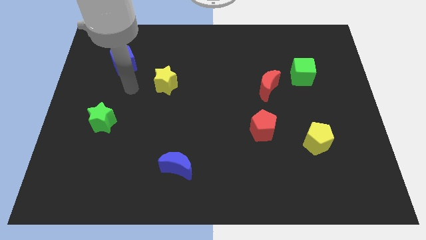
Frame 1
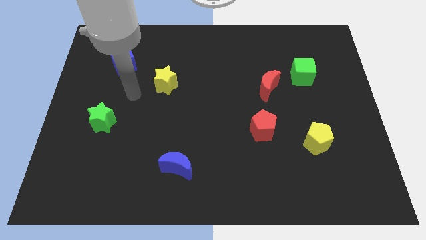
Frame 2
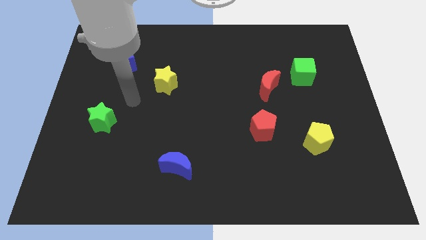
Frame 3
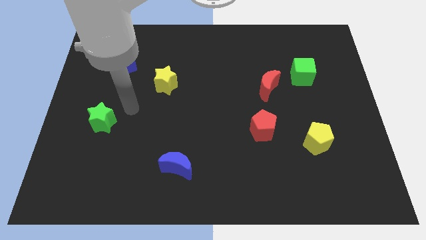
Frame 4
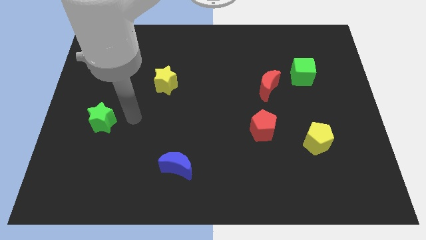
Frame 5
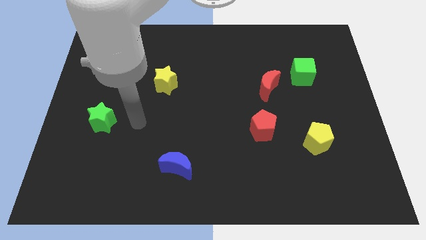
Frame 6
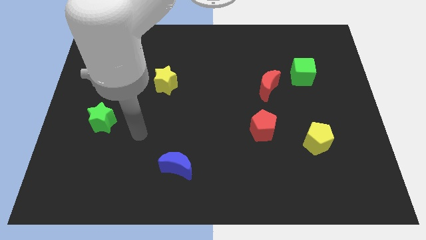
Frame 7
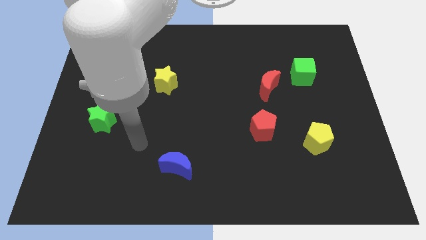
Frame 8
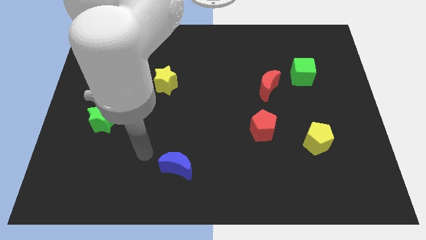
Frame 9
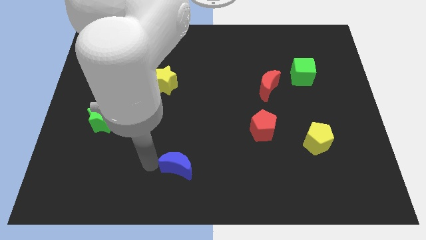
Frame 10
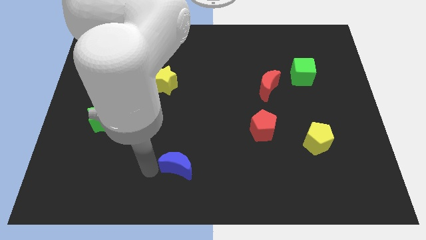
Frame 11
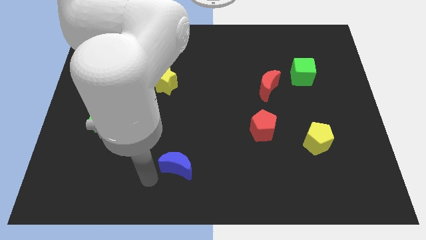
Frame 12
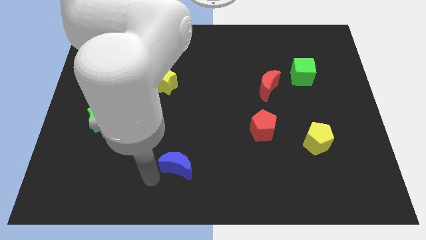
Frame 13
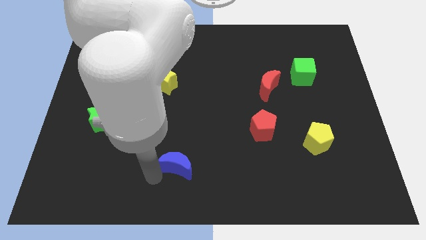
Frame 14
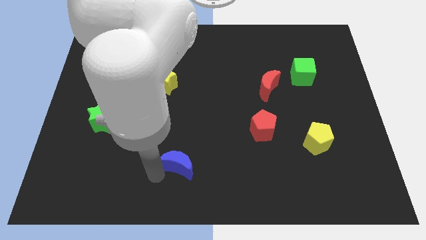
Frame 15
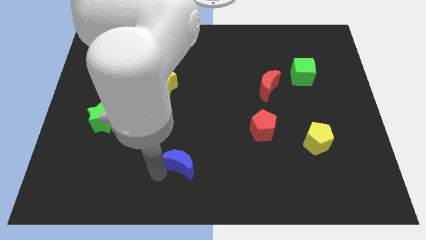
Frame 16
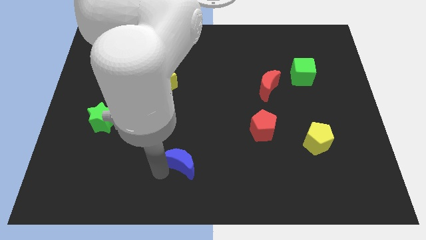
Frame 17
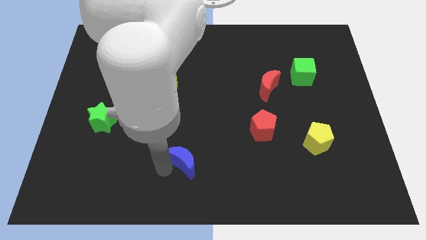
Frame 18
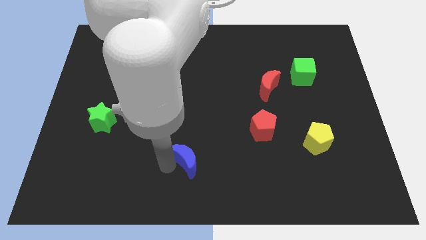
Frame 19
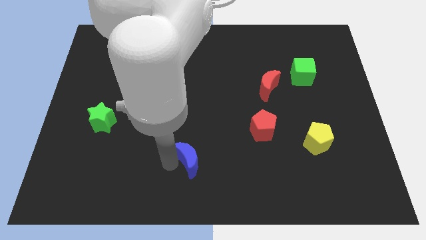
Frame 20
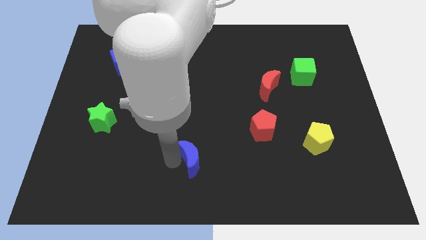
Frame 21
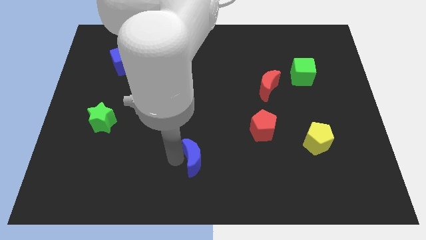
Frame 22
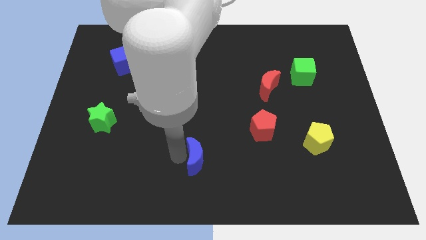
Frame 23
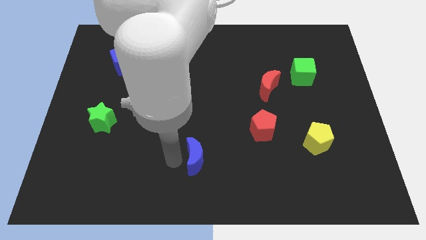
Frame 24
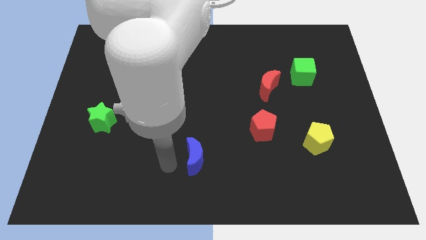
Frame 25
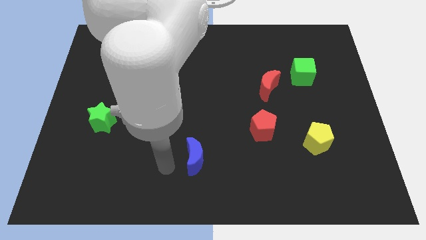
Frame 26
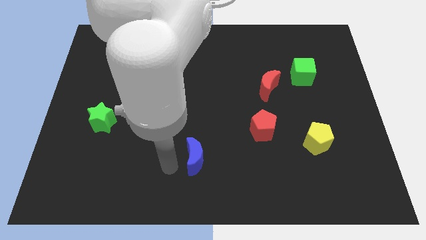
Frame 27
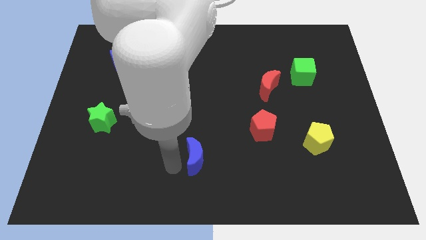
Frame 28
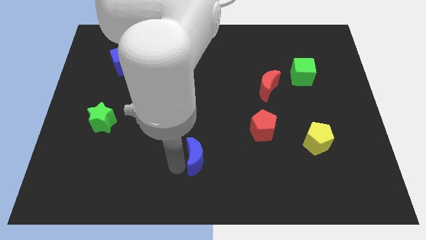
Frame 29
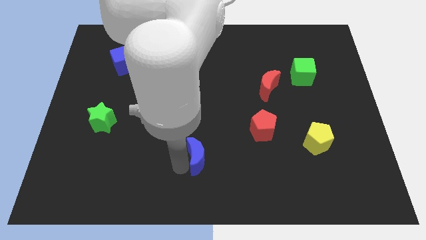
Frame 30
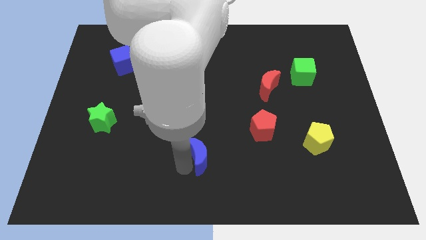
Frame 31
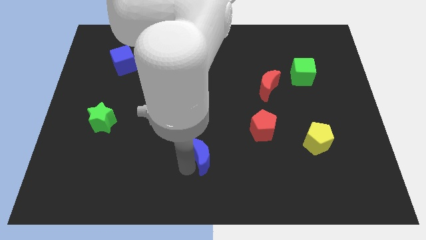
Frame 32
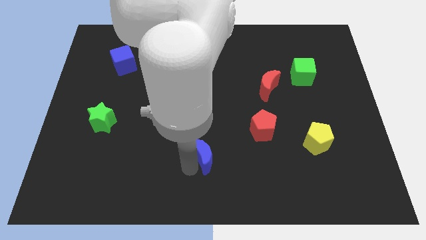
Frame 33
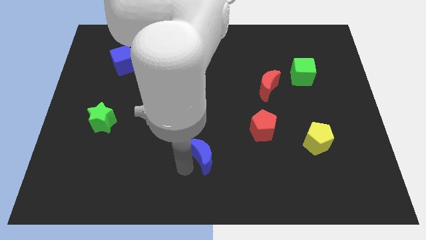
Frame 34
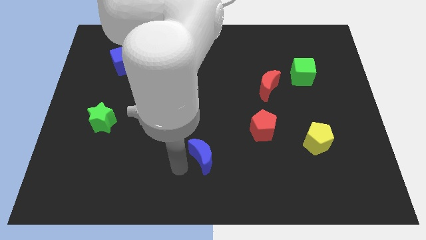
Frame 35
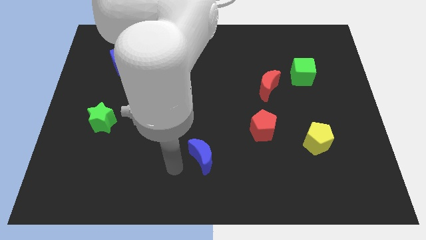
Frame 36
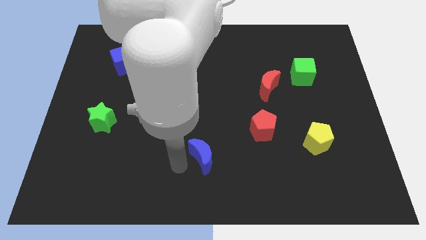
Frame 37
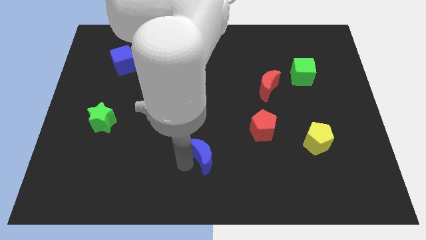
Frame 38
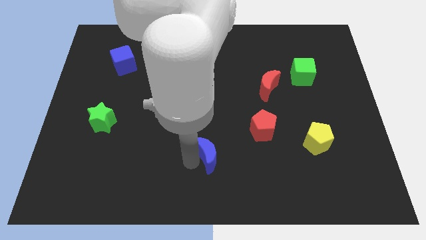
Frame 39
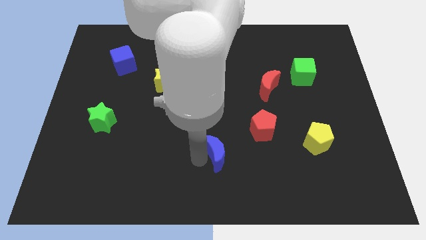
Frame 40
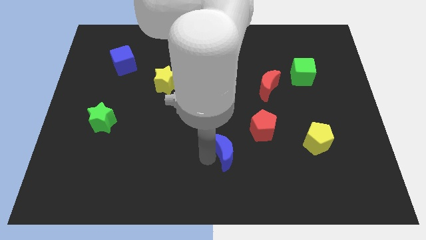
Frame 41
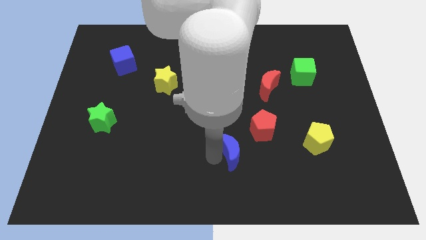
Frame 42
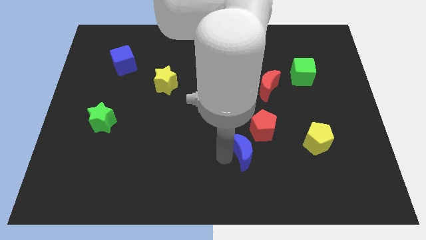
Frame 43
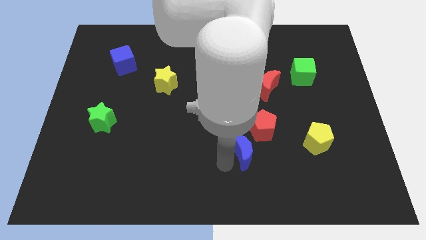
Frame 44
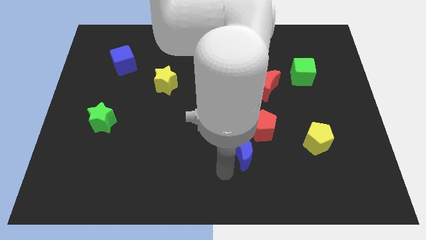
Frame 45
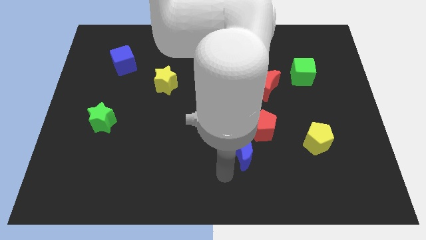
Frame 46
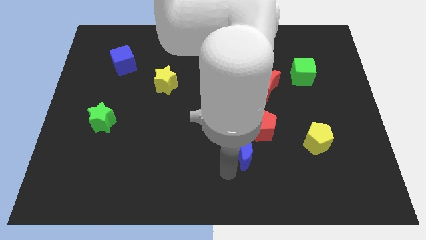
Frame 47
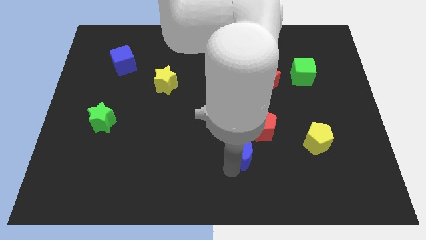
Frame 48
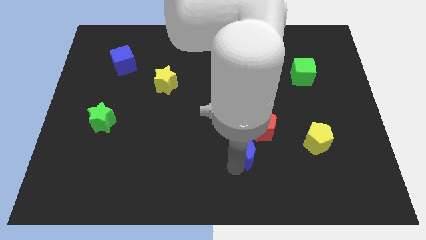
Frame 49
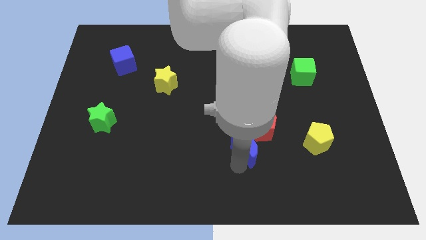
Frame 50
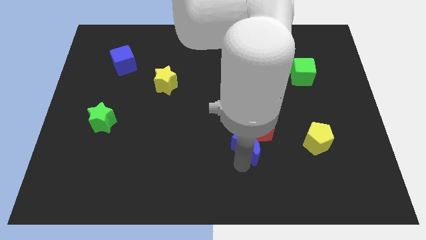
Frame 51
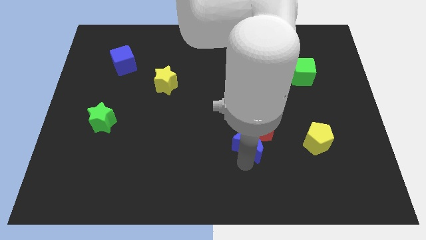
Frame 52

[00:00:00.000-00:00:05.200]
put the blue moon towards the red pentagon

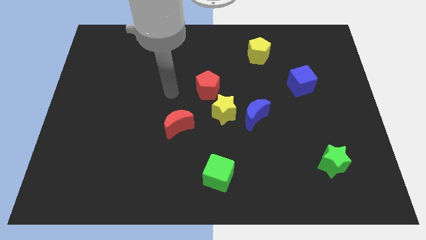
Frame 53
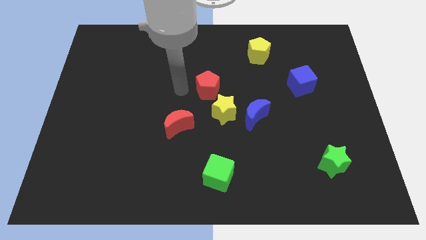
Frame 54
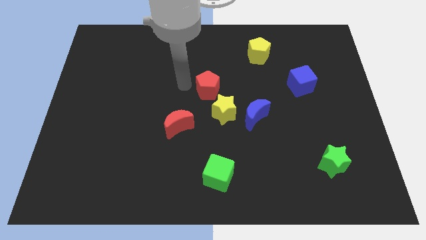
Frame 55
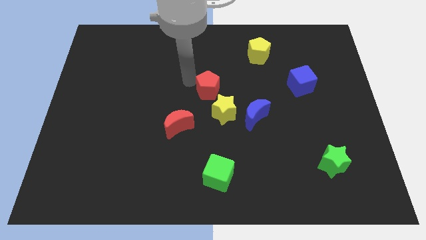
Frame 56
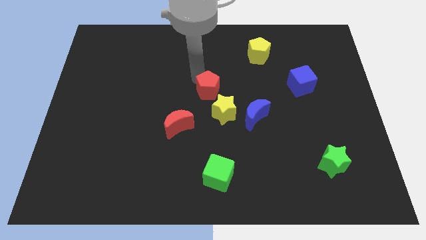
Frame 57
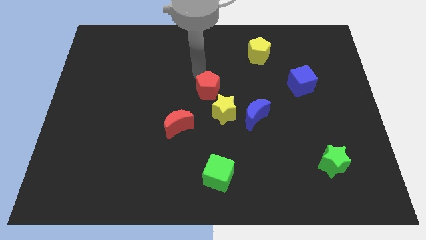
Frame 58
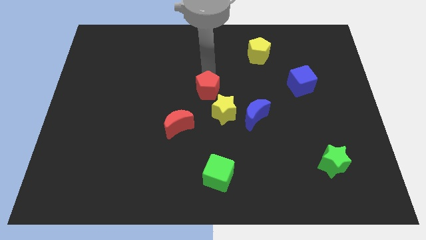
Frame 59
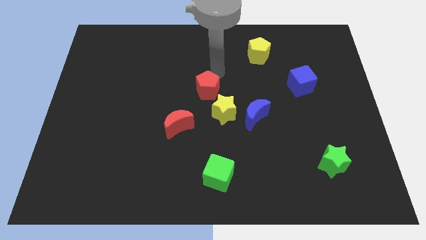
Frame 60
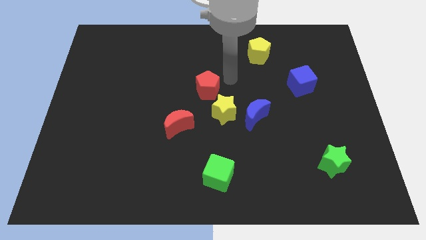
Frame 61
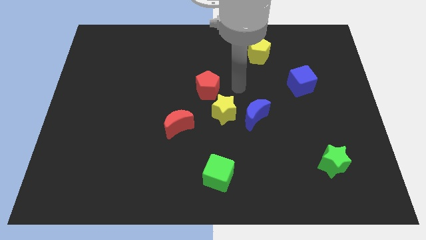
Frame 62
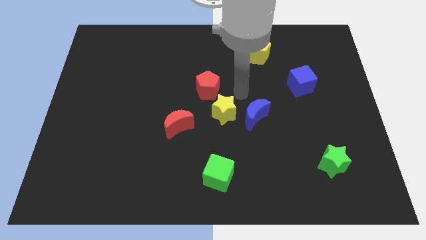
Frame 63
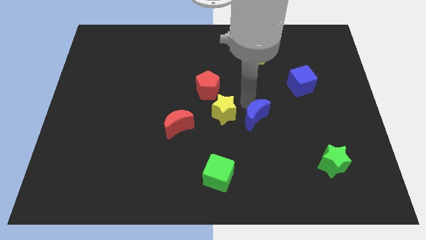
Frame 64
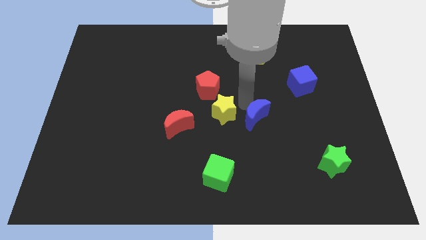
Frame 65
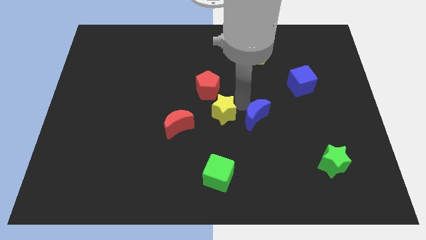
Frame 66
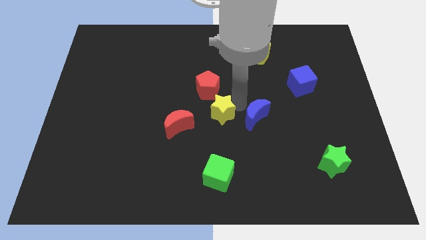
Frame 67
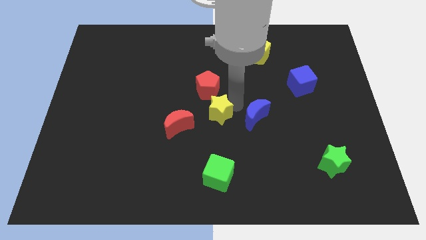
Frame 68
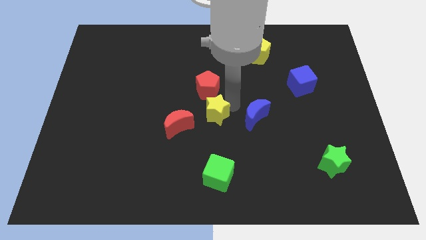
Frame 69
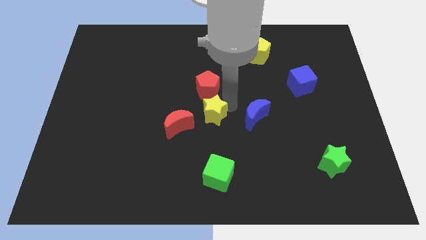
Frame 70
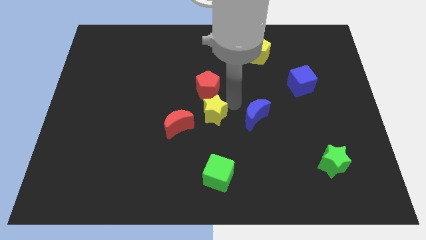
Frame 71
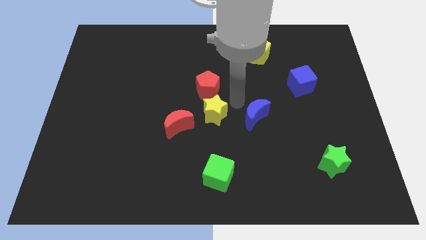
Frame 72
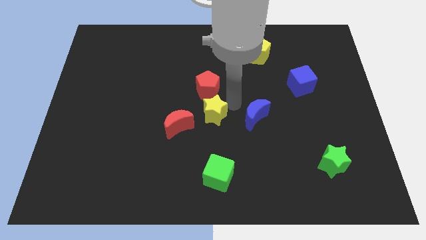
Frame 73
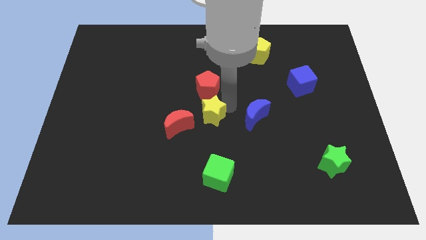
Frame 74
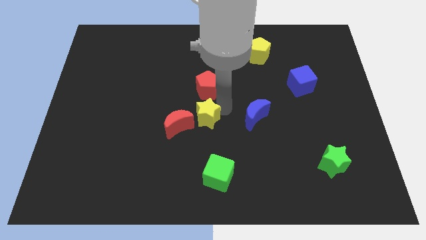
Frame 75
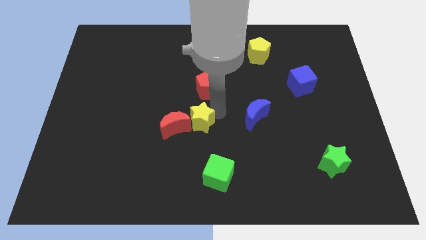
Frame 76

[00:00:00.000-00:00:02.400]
push the yellow star next to the red moon
